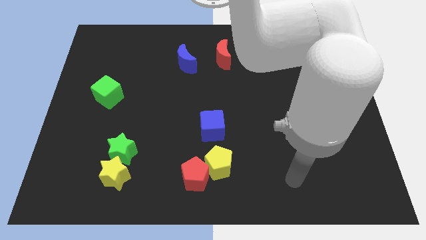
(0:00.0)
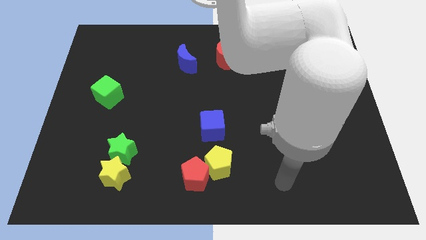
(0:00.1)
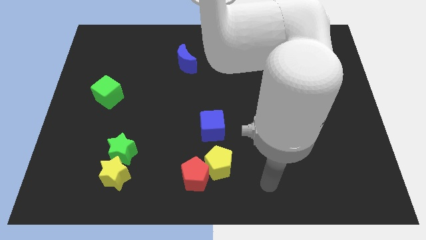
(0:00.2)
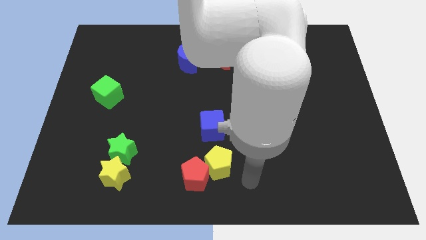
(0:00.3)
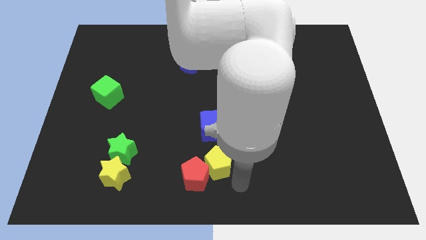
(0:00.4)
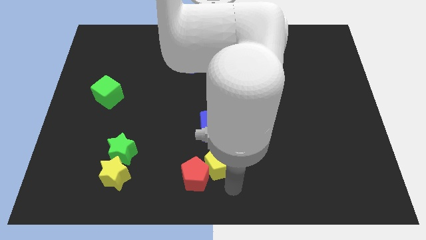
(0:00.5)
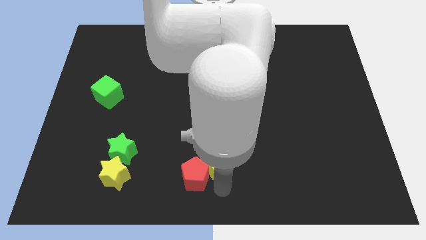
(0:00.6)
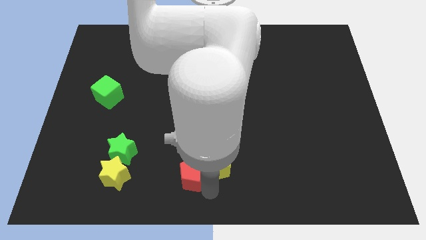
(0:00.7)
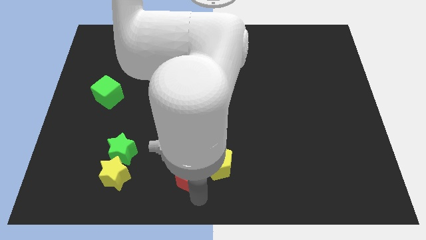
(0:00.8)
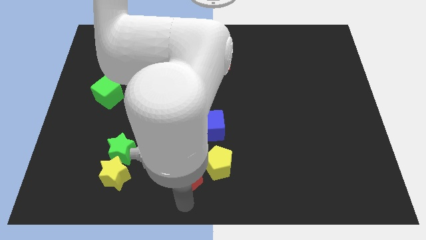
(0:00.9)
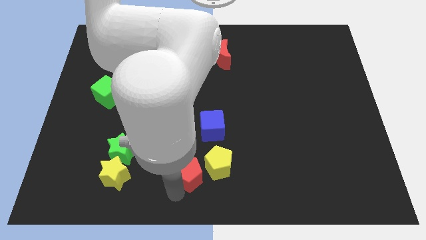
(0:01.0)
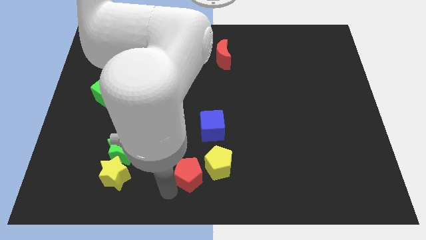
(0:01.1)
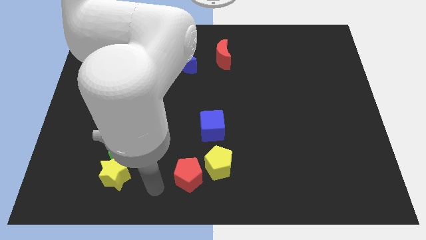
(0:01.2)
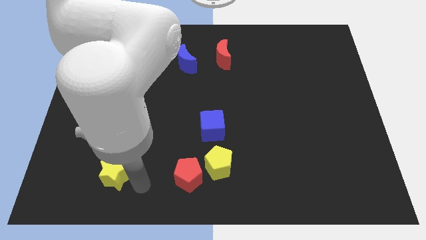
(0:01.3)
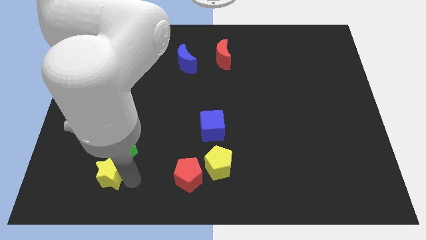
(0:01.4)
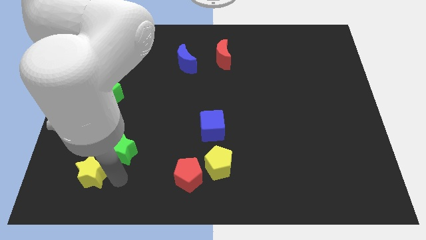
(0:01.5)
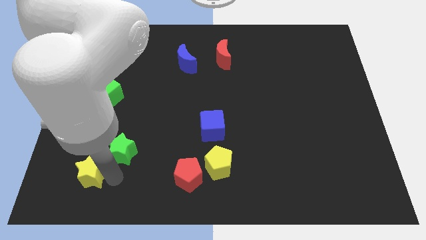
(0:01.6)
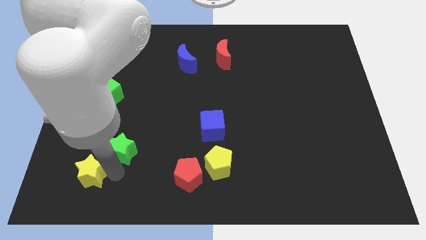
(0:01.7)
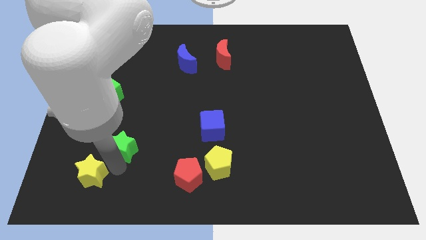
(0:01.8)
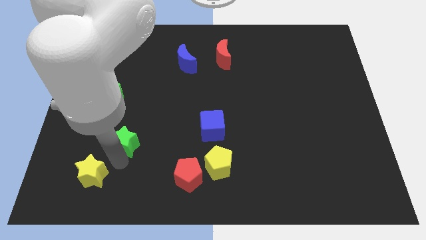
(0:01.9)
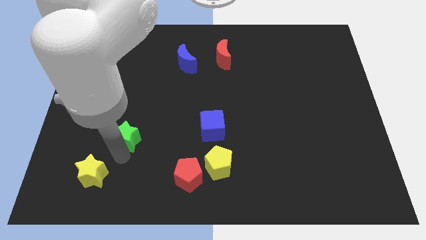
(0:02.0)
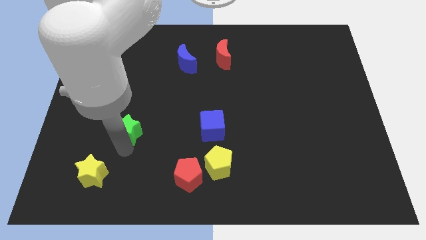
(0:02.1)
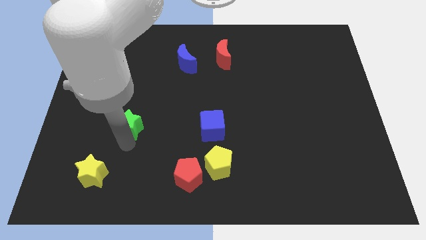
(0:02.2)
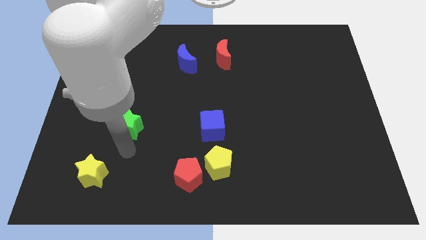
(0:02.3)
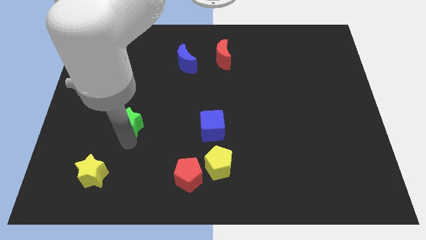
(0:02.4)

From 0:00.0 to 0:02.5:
slightly slide the green star up

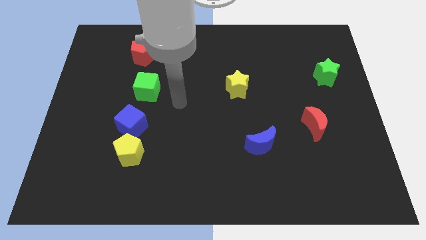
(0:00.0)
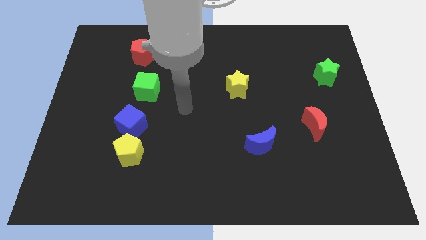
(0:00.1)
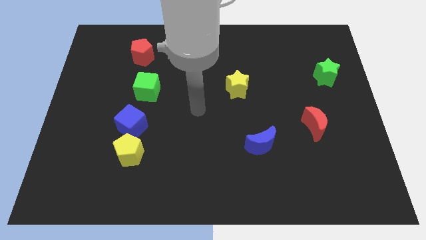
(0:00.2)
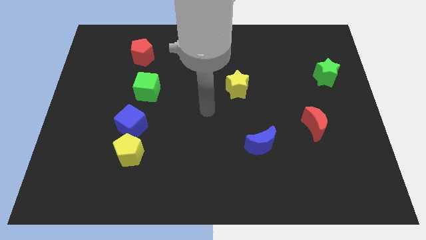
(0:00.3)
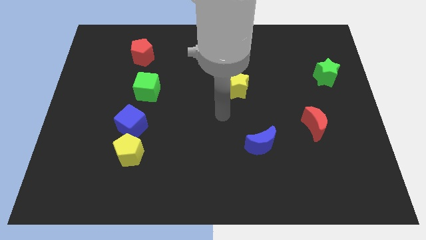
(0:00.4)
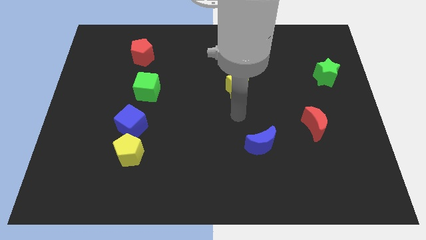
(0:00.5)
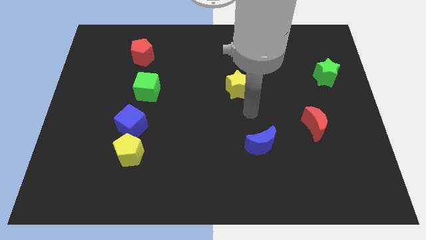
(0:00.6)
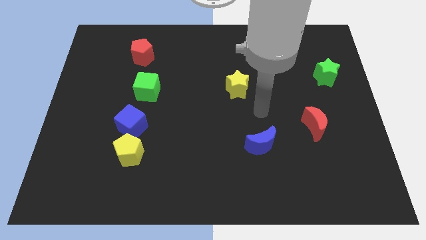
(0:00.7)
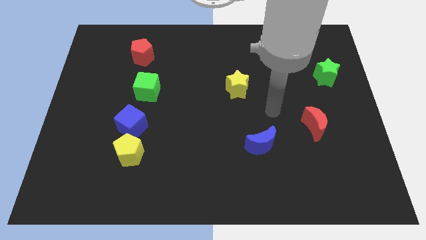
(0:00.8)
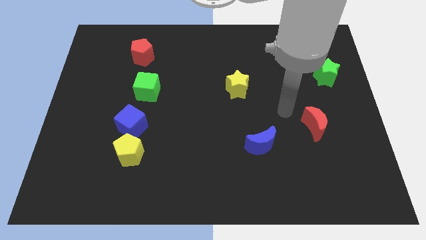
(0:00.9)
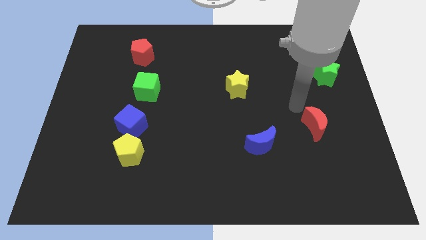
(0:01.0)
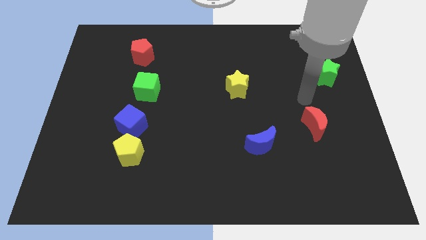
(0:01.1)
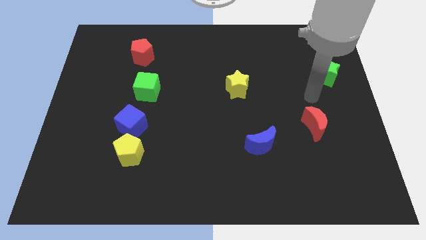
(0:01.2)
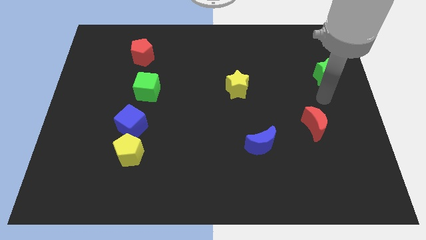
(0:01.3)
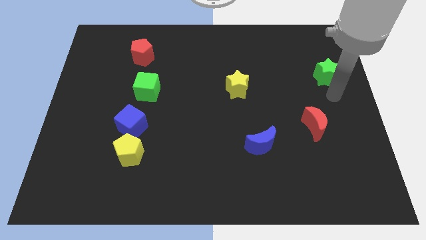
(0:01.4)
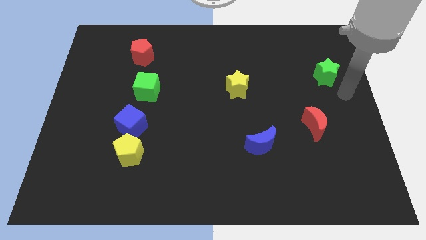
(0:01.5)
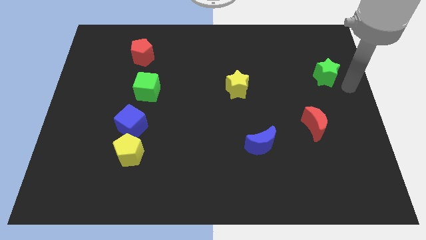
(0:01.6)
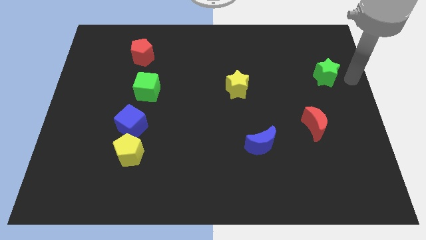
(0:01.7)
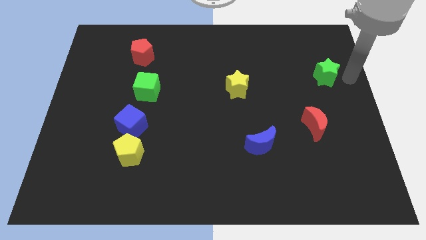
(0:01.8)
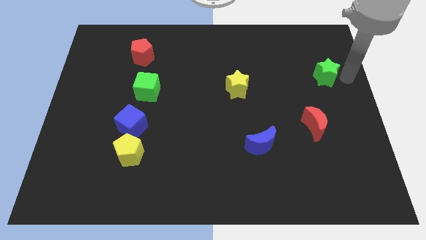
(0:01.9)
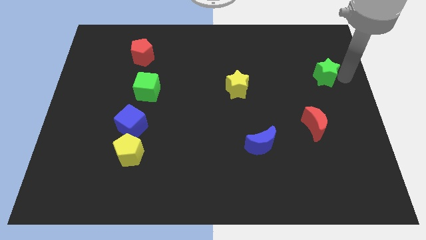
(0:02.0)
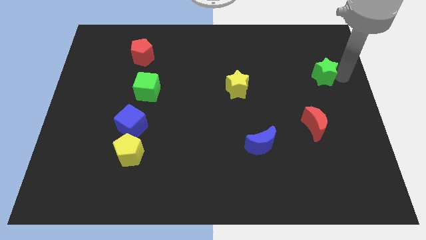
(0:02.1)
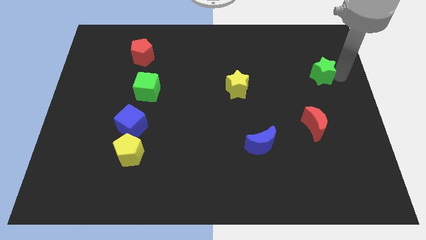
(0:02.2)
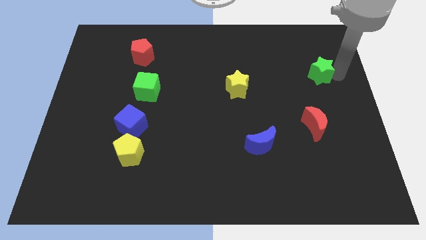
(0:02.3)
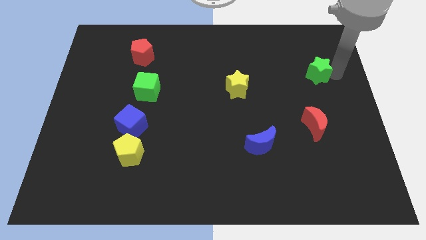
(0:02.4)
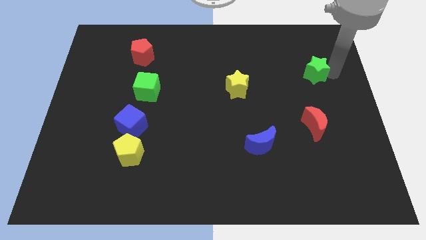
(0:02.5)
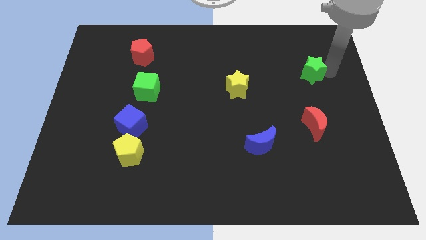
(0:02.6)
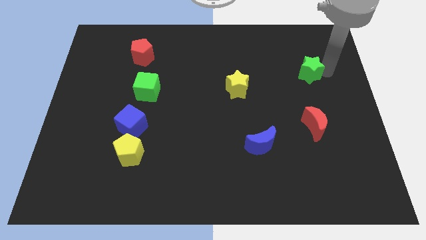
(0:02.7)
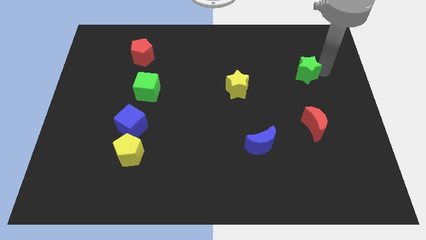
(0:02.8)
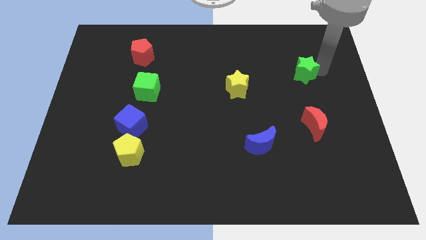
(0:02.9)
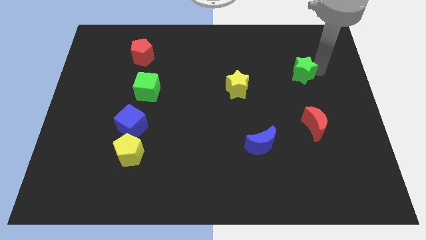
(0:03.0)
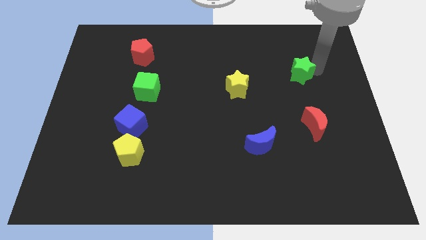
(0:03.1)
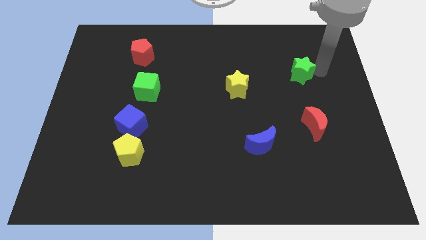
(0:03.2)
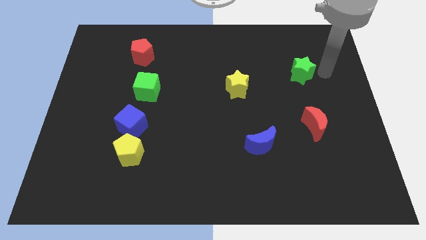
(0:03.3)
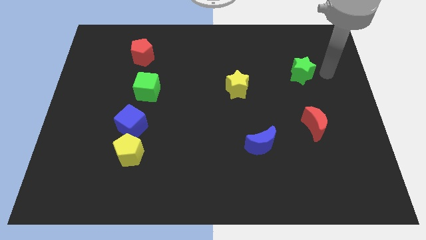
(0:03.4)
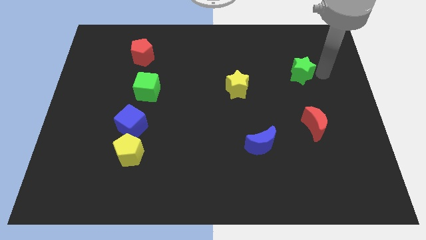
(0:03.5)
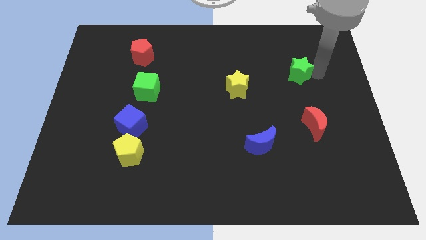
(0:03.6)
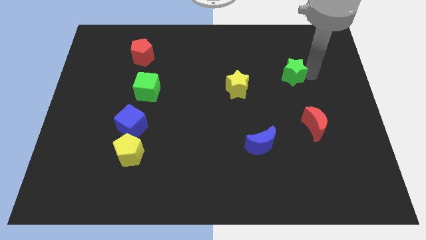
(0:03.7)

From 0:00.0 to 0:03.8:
slightly push the green star to the left

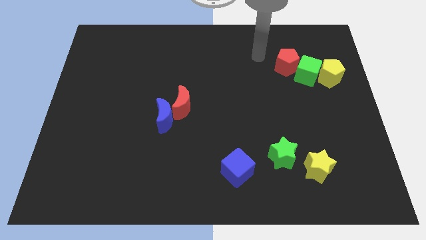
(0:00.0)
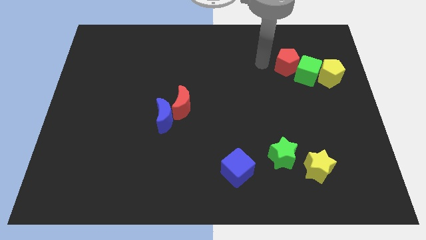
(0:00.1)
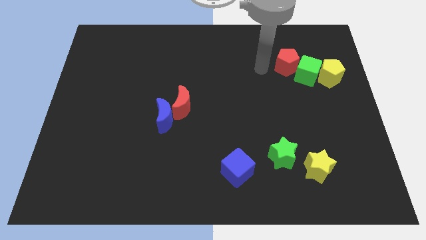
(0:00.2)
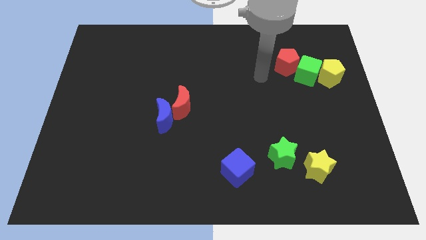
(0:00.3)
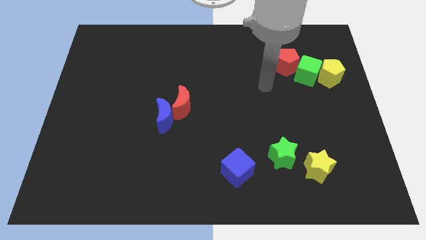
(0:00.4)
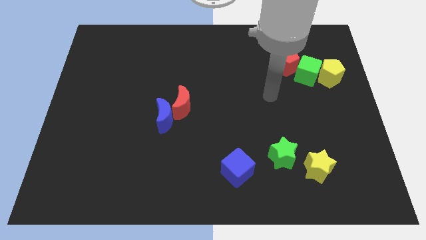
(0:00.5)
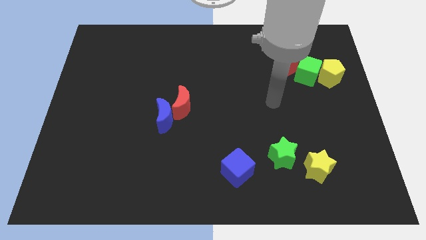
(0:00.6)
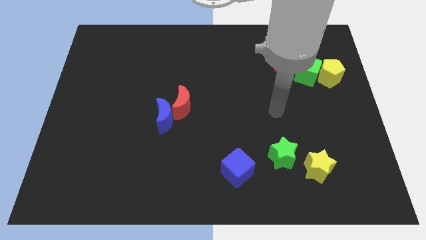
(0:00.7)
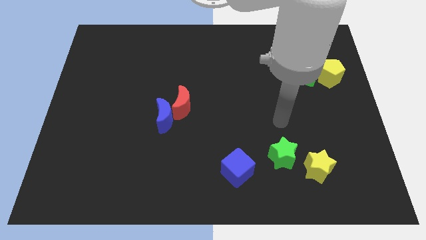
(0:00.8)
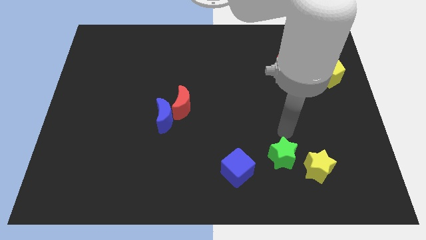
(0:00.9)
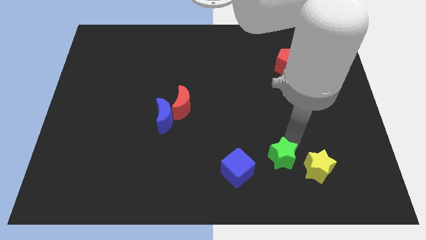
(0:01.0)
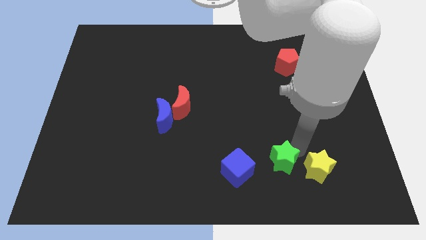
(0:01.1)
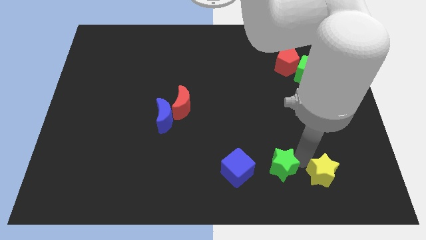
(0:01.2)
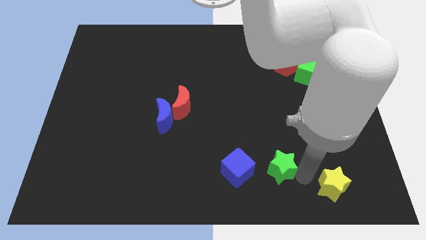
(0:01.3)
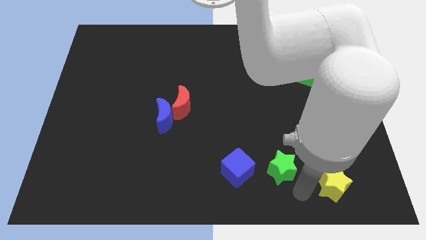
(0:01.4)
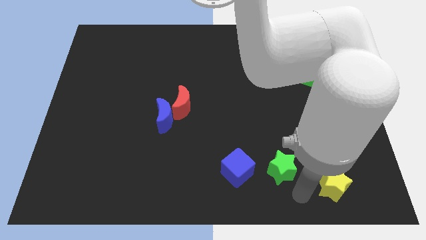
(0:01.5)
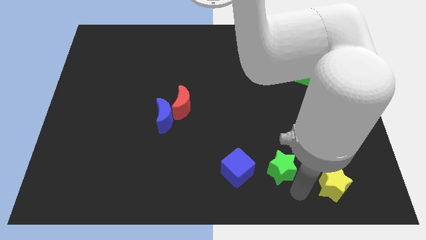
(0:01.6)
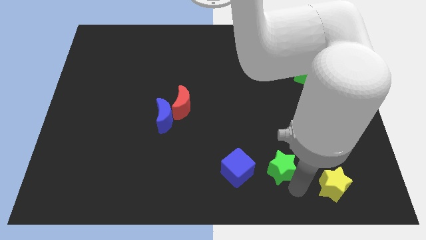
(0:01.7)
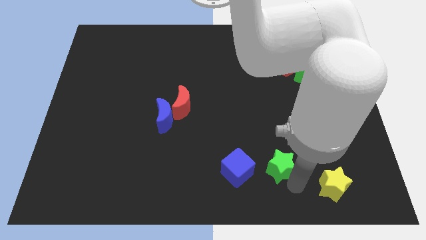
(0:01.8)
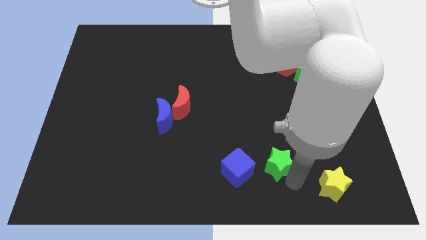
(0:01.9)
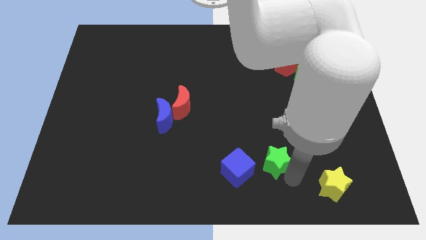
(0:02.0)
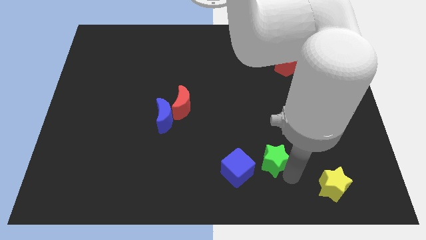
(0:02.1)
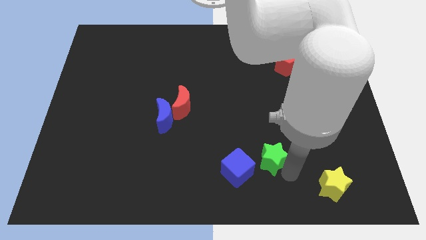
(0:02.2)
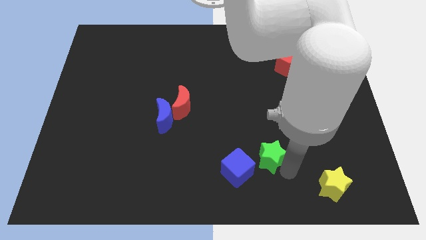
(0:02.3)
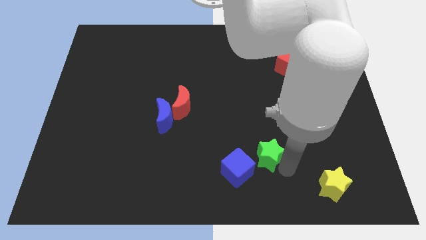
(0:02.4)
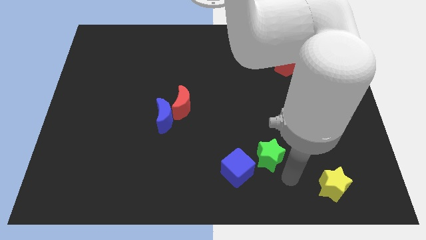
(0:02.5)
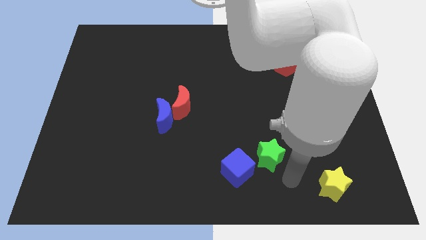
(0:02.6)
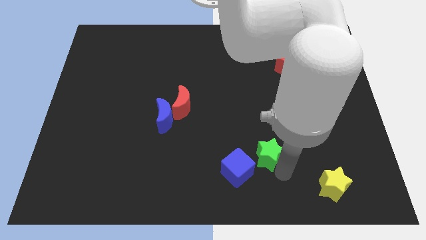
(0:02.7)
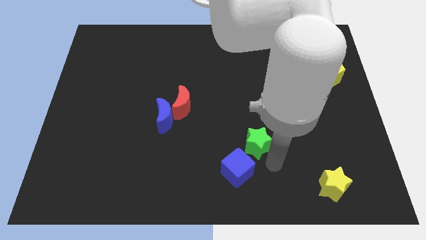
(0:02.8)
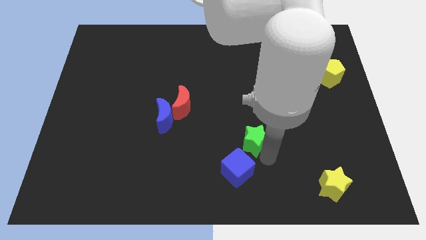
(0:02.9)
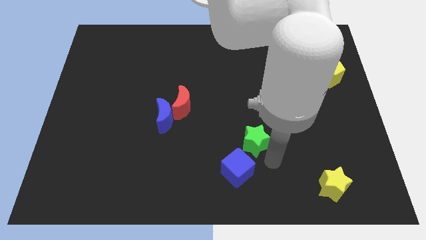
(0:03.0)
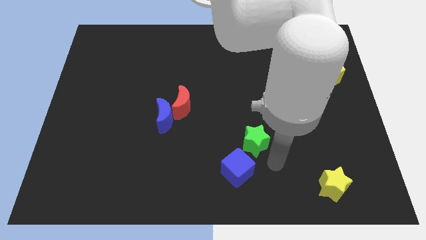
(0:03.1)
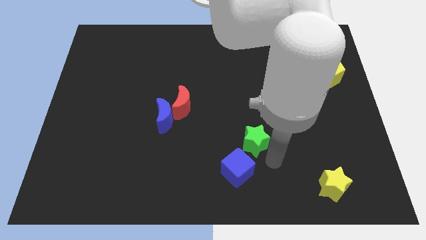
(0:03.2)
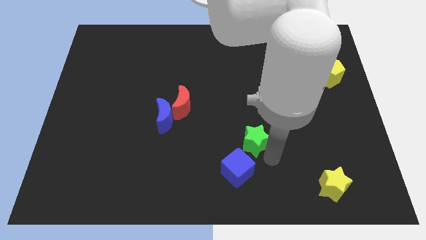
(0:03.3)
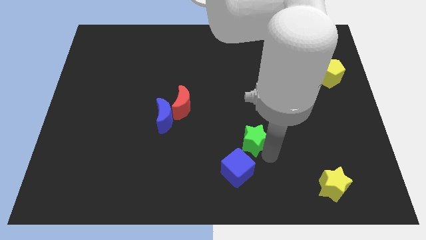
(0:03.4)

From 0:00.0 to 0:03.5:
push the green star diagonally up and left slightly
